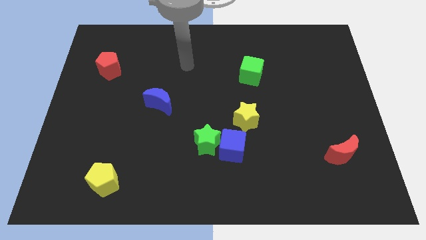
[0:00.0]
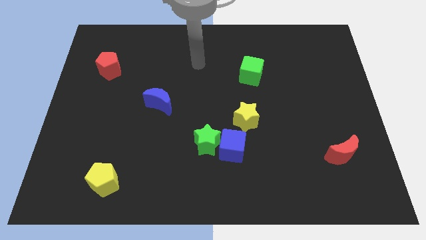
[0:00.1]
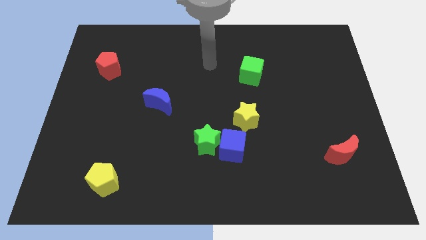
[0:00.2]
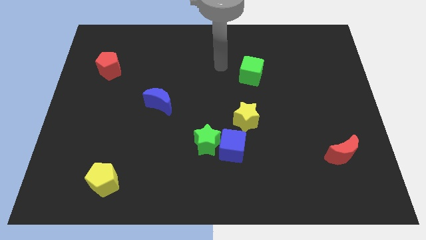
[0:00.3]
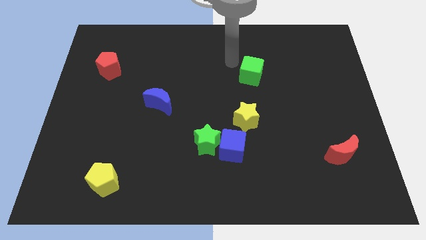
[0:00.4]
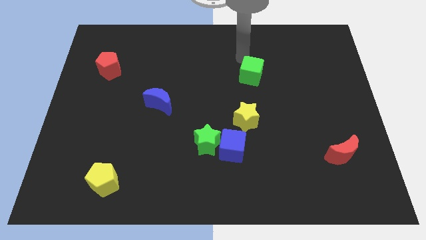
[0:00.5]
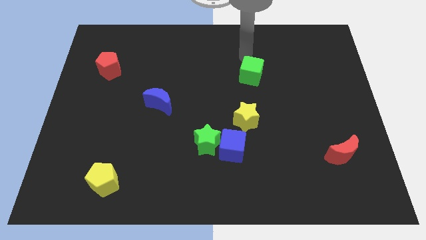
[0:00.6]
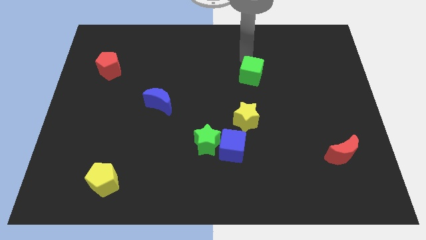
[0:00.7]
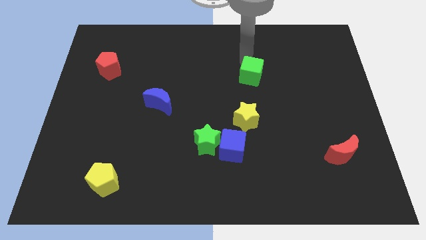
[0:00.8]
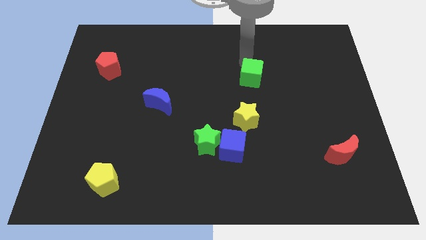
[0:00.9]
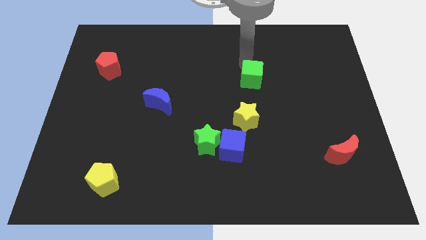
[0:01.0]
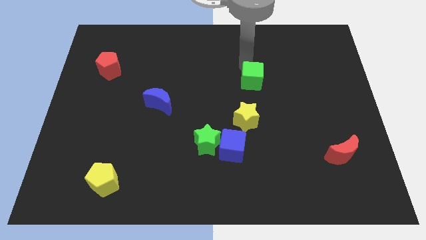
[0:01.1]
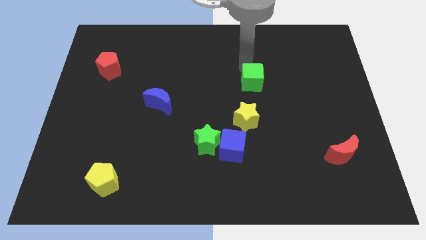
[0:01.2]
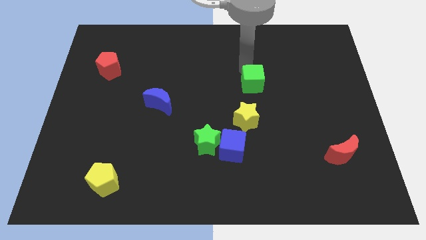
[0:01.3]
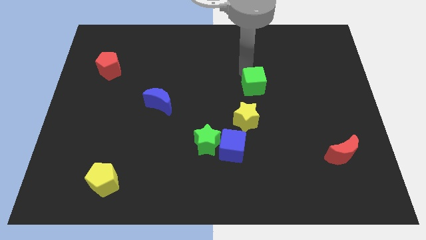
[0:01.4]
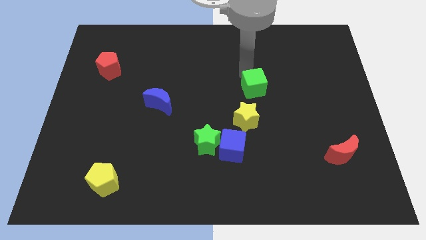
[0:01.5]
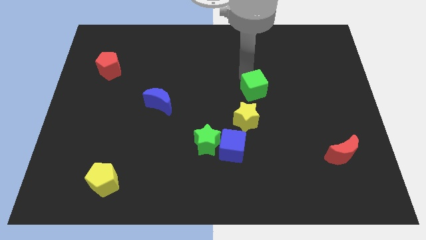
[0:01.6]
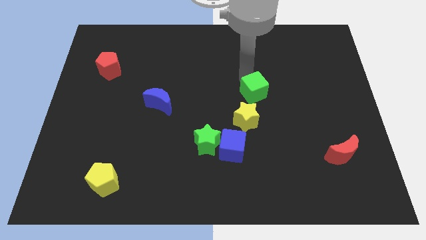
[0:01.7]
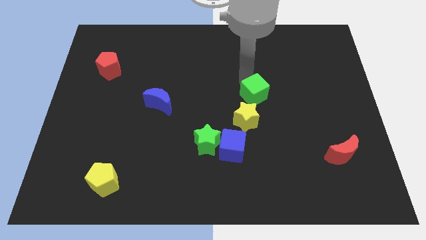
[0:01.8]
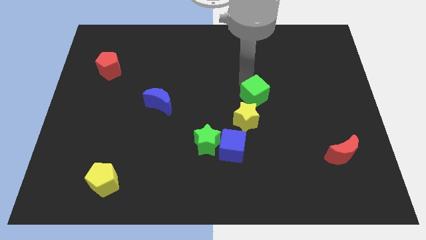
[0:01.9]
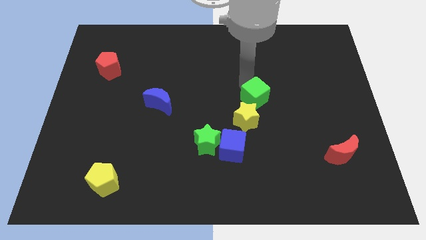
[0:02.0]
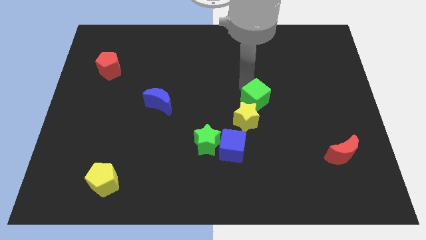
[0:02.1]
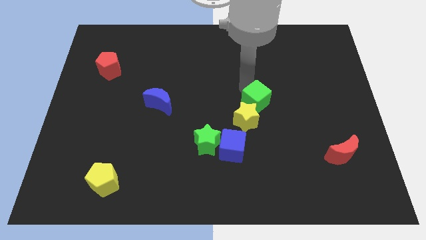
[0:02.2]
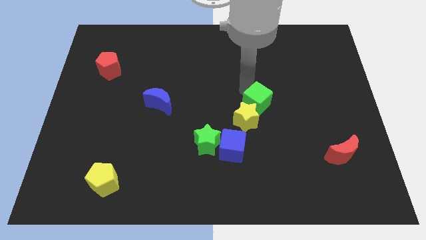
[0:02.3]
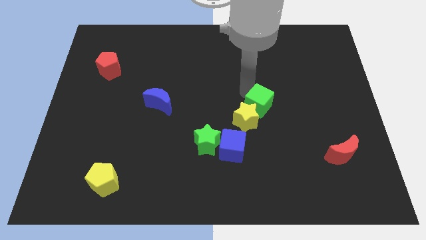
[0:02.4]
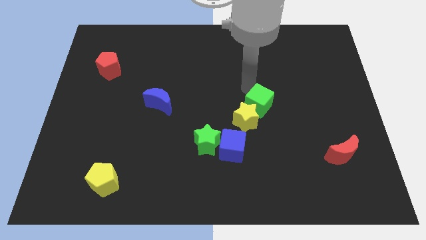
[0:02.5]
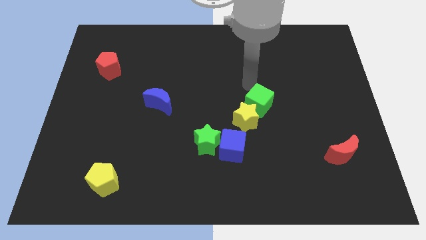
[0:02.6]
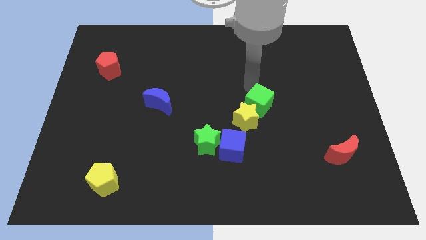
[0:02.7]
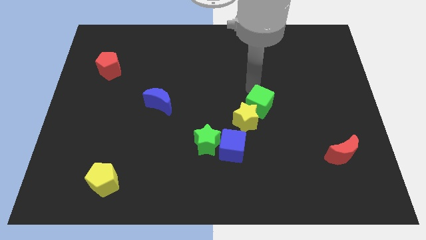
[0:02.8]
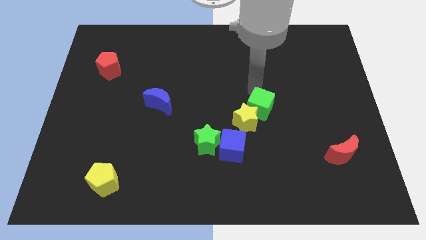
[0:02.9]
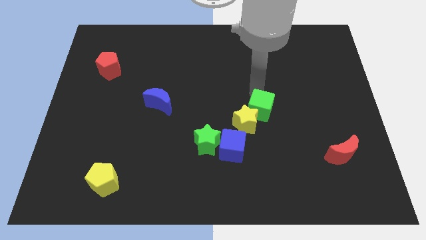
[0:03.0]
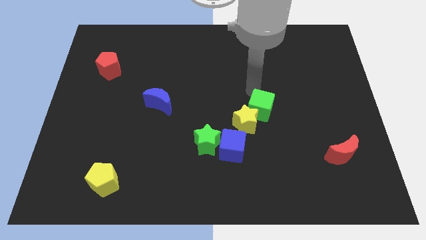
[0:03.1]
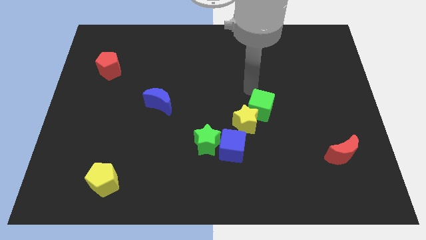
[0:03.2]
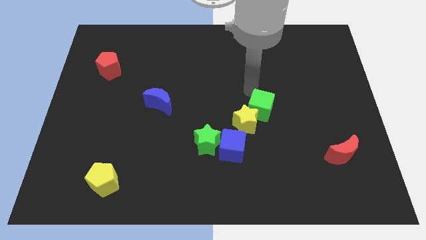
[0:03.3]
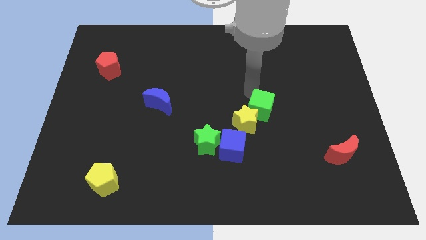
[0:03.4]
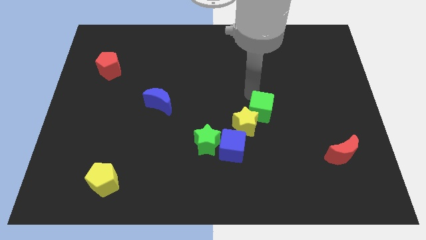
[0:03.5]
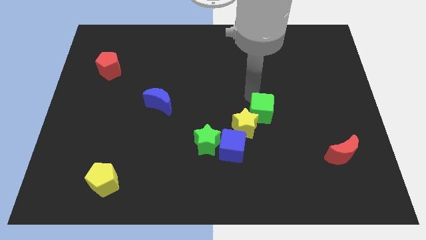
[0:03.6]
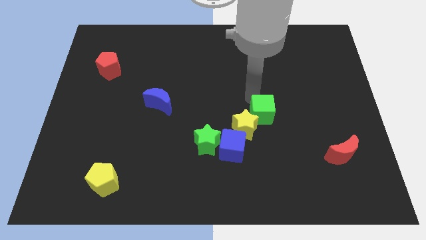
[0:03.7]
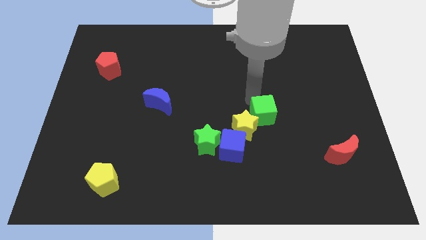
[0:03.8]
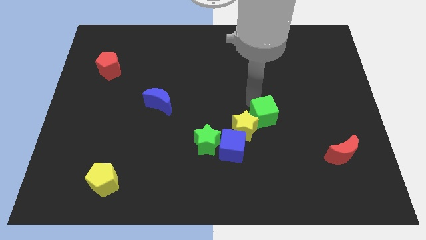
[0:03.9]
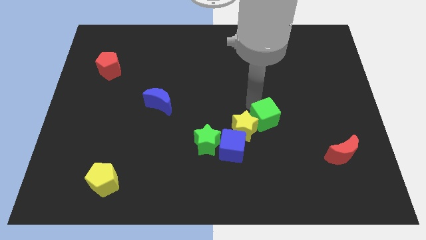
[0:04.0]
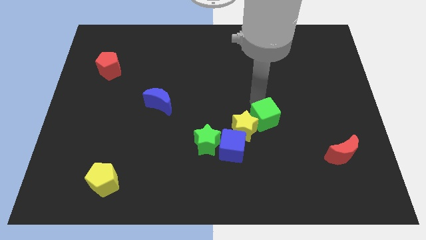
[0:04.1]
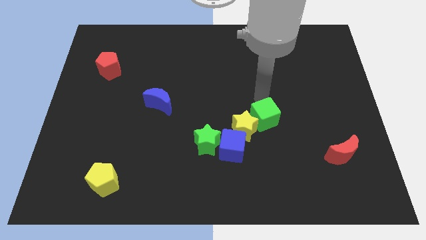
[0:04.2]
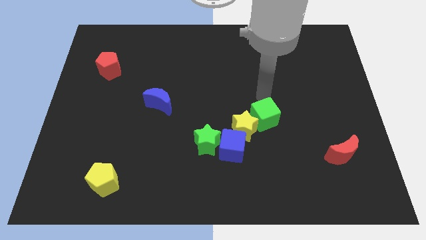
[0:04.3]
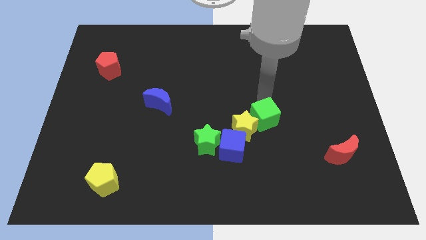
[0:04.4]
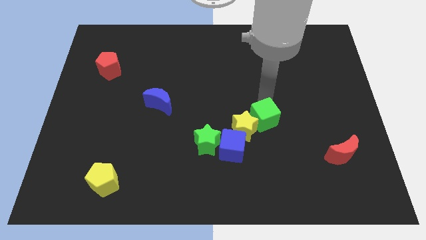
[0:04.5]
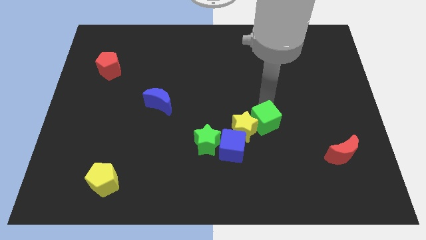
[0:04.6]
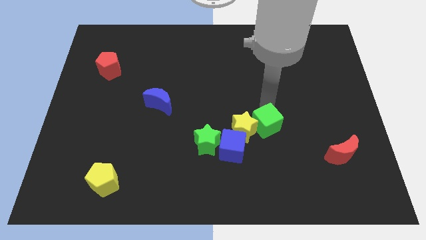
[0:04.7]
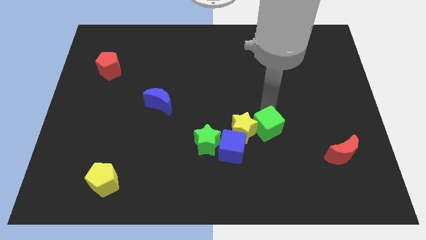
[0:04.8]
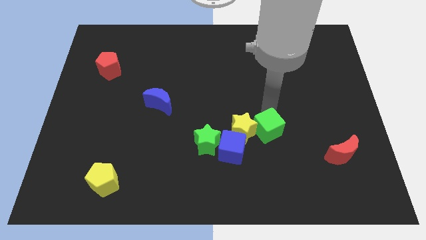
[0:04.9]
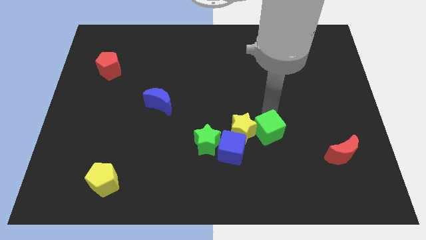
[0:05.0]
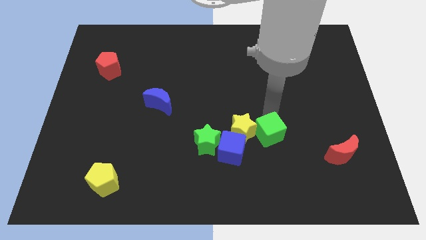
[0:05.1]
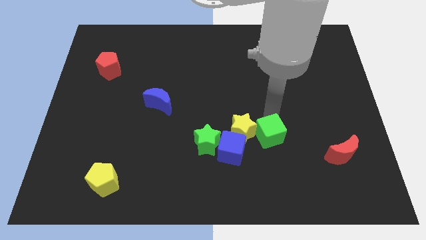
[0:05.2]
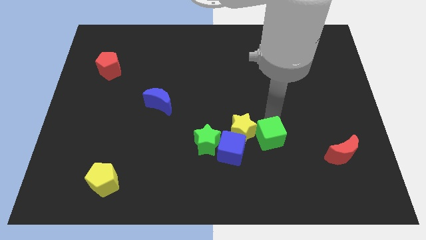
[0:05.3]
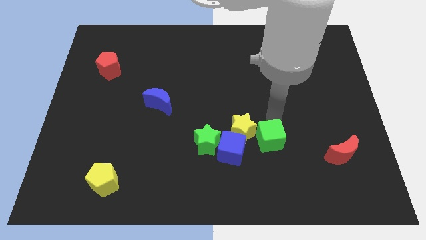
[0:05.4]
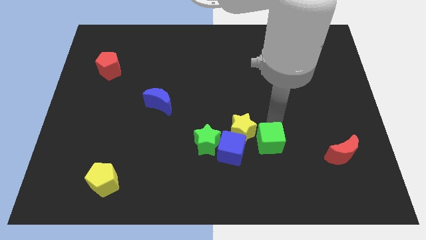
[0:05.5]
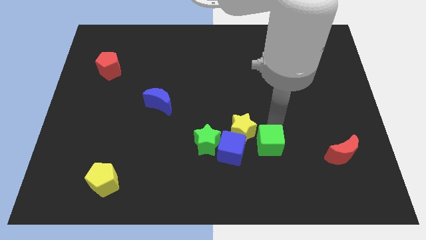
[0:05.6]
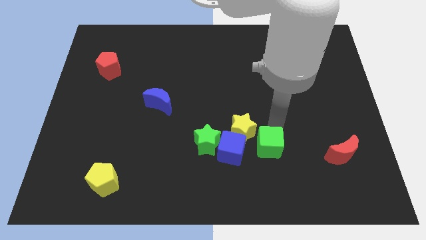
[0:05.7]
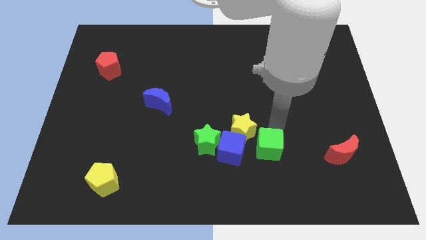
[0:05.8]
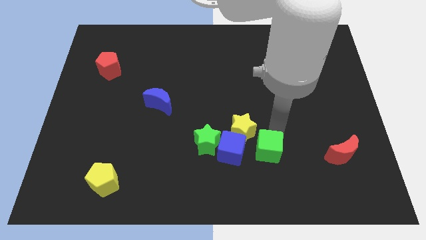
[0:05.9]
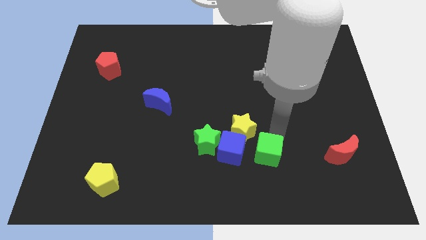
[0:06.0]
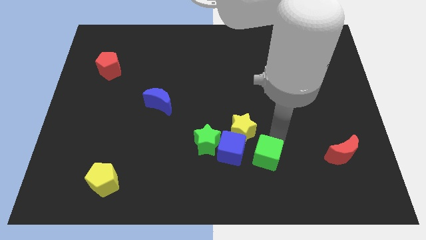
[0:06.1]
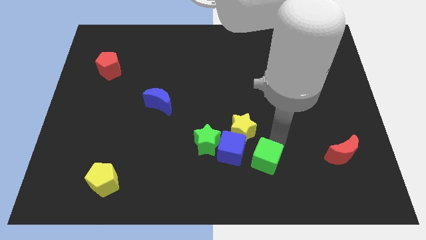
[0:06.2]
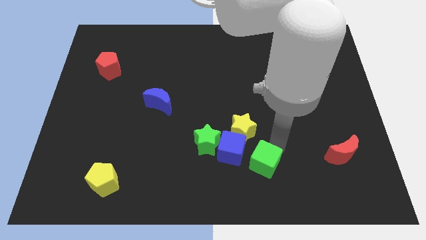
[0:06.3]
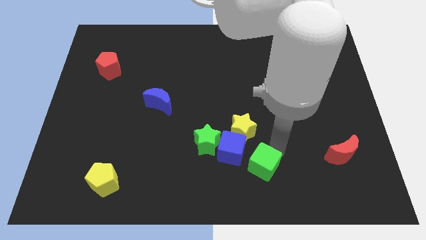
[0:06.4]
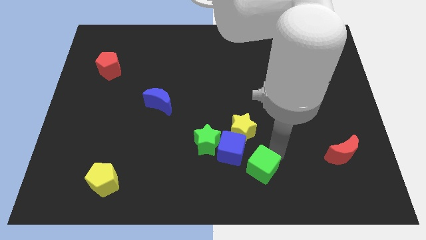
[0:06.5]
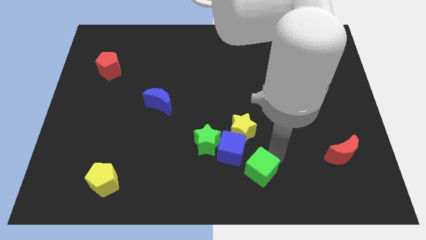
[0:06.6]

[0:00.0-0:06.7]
push the green cube to the bottom side
